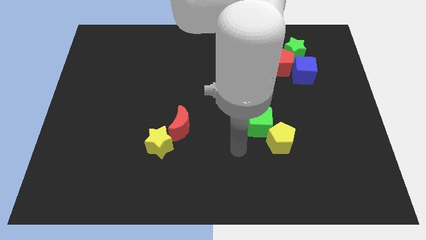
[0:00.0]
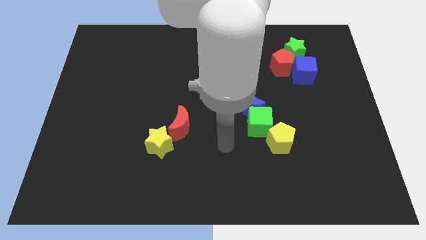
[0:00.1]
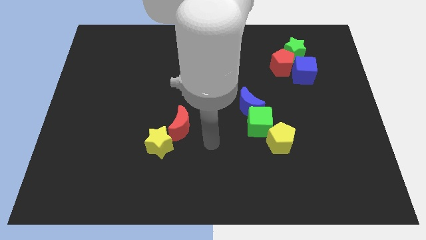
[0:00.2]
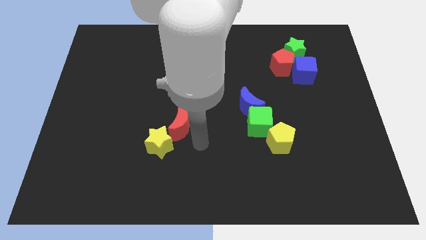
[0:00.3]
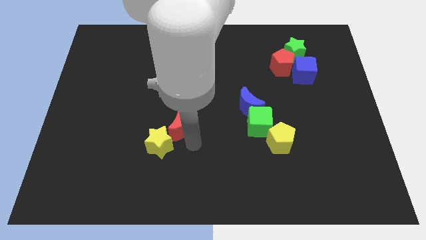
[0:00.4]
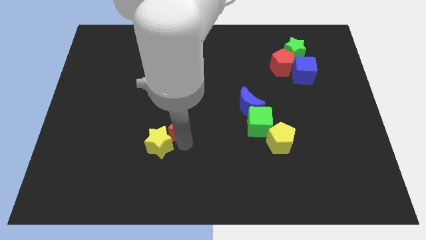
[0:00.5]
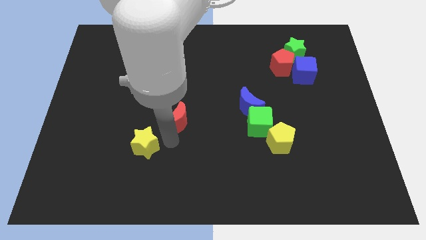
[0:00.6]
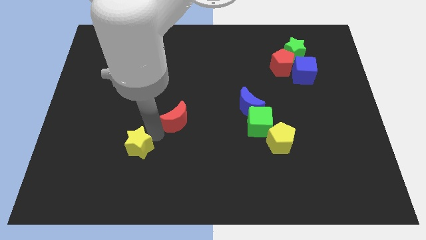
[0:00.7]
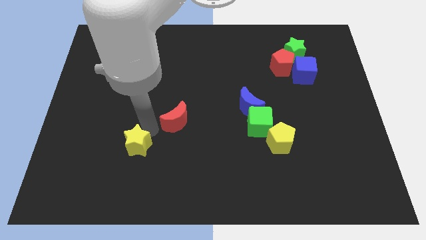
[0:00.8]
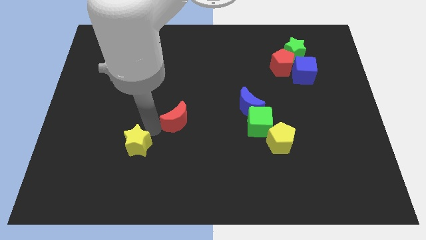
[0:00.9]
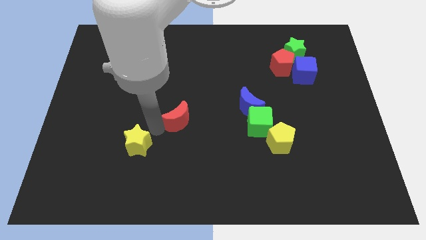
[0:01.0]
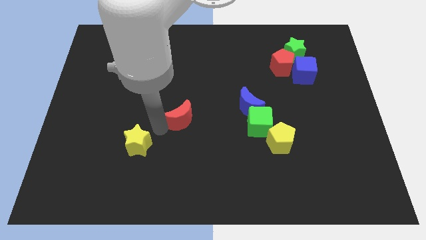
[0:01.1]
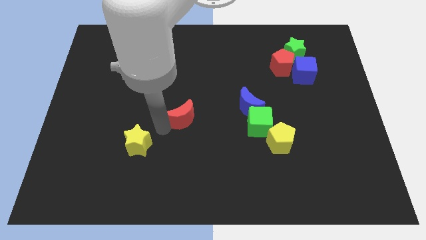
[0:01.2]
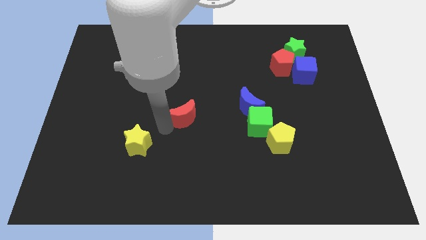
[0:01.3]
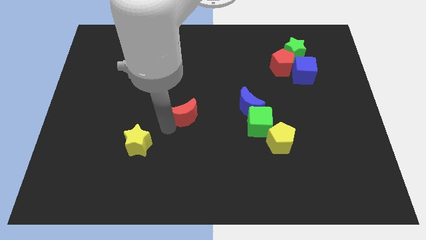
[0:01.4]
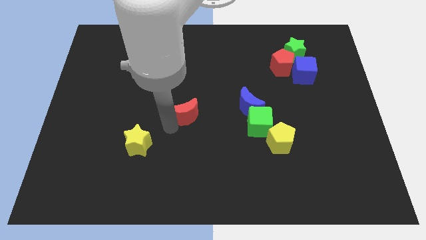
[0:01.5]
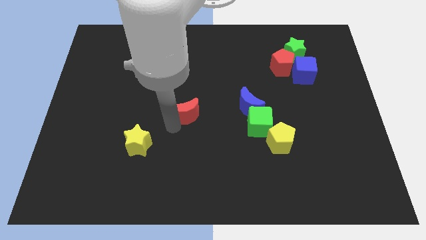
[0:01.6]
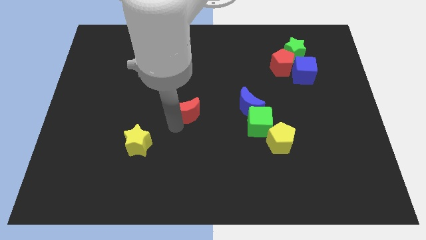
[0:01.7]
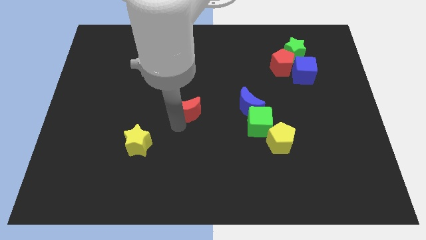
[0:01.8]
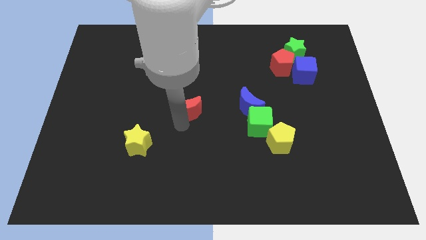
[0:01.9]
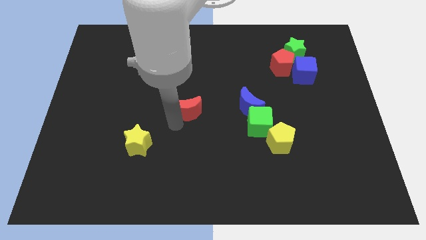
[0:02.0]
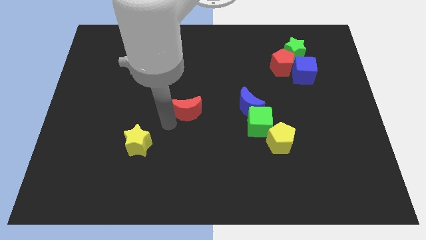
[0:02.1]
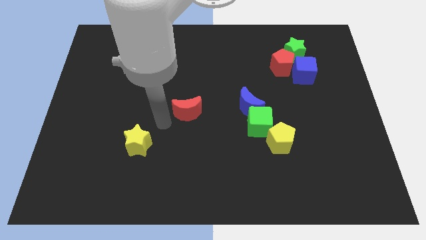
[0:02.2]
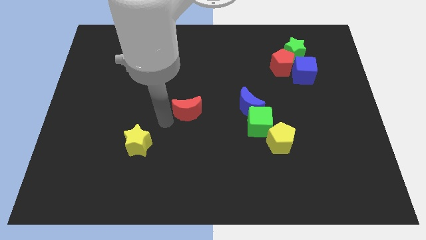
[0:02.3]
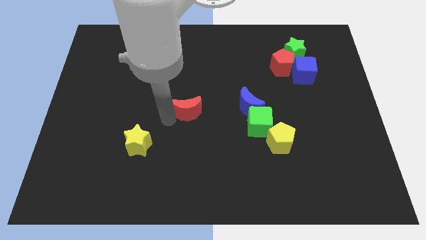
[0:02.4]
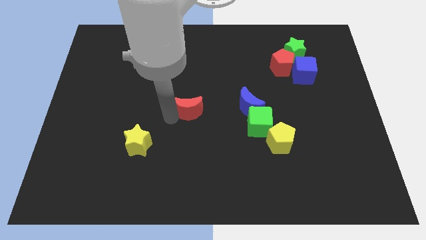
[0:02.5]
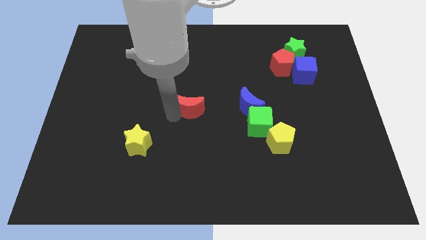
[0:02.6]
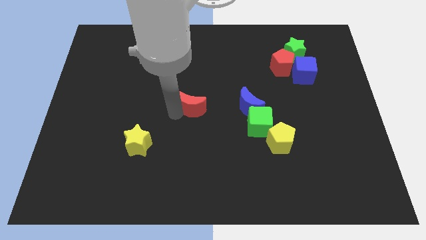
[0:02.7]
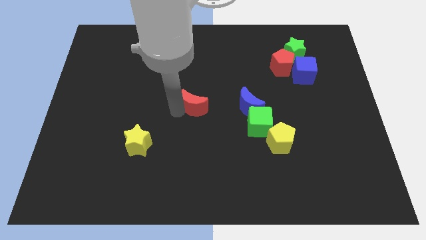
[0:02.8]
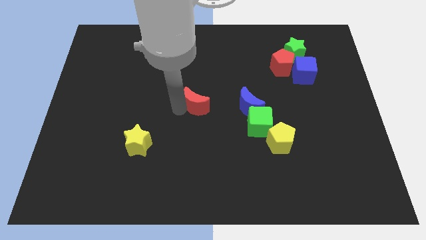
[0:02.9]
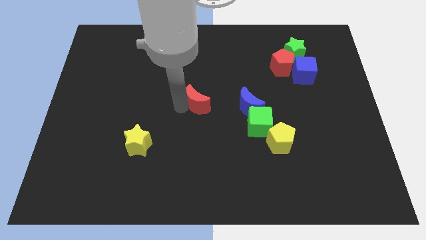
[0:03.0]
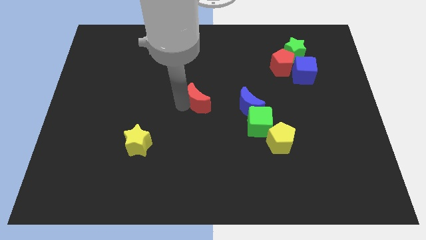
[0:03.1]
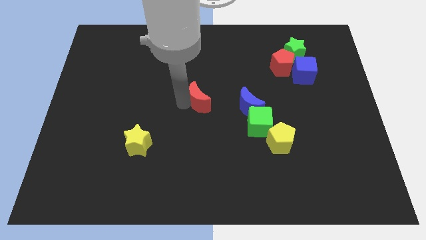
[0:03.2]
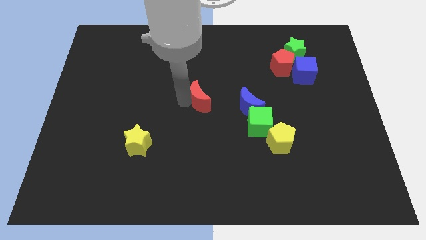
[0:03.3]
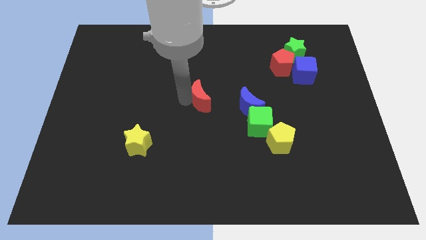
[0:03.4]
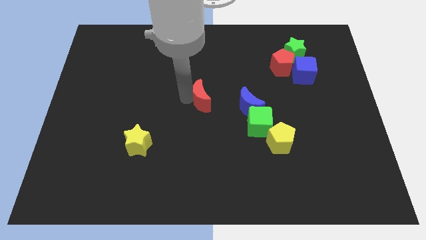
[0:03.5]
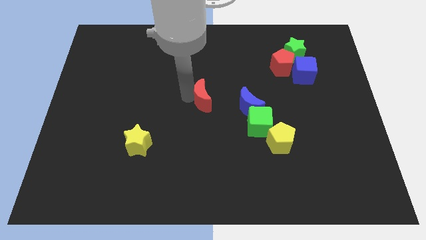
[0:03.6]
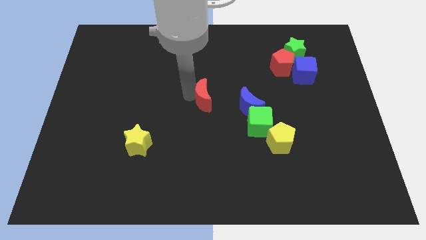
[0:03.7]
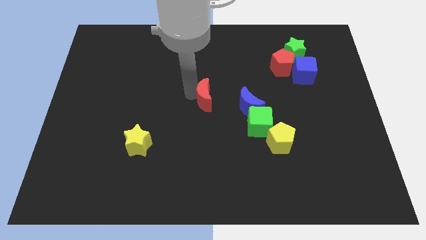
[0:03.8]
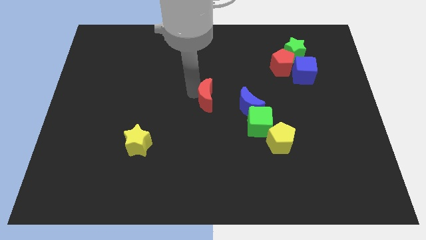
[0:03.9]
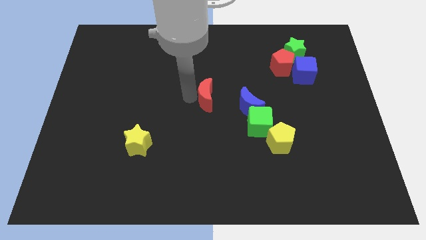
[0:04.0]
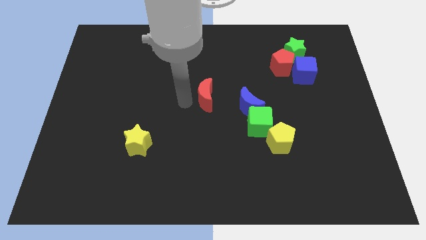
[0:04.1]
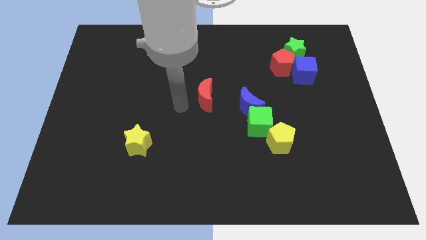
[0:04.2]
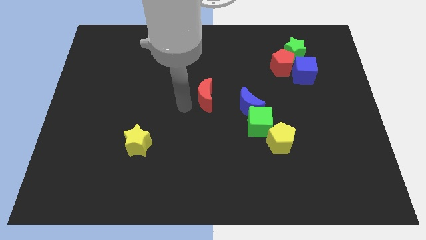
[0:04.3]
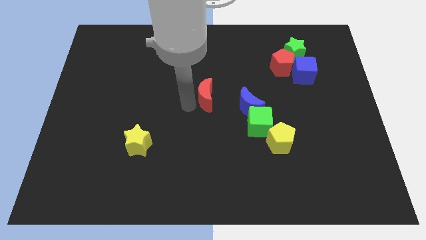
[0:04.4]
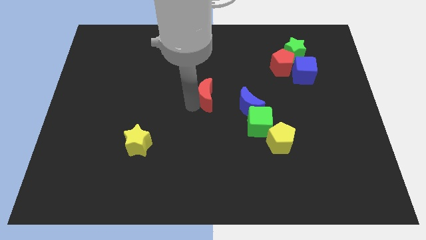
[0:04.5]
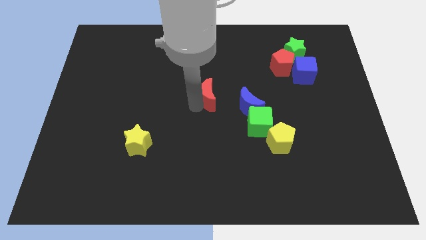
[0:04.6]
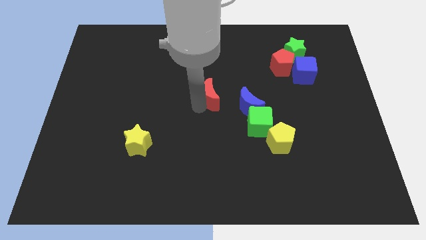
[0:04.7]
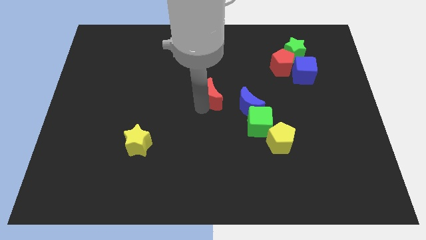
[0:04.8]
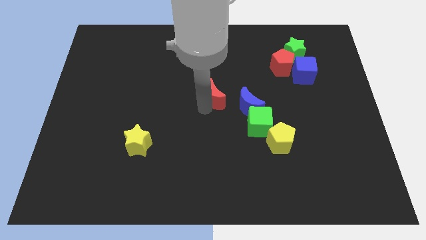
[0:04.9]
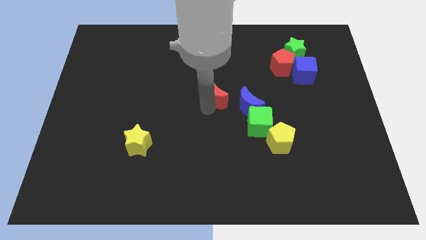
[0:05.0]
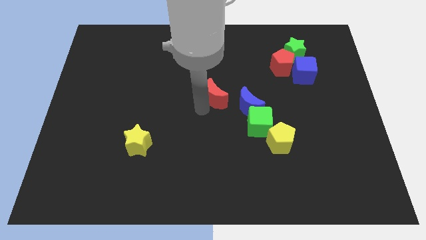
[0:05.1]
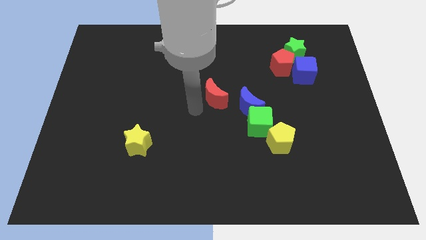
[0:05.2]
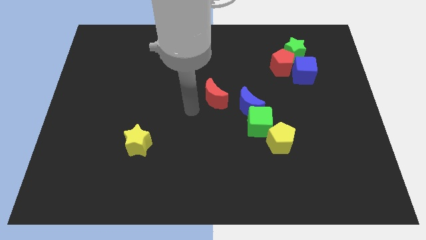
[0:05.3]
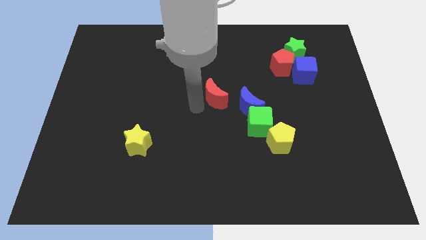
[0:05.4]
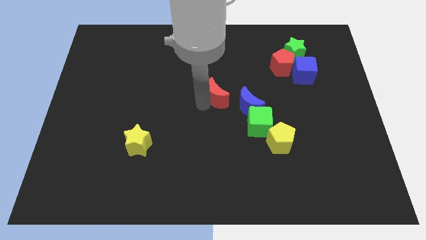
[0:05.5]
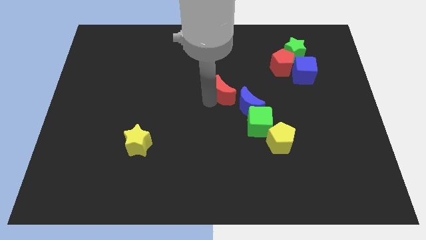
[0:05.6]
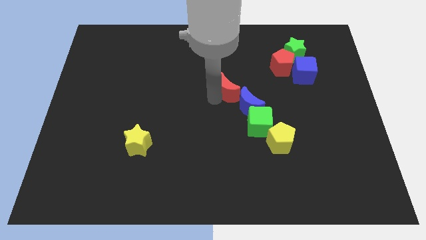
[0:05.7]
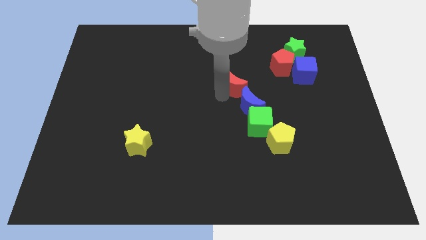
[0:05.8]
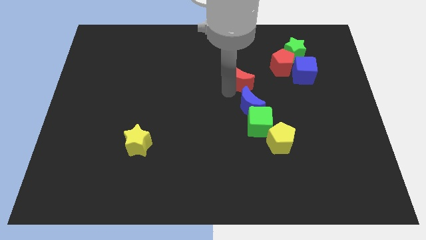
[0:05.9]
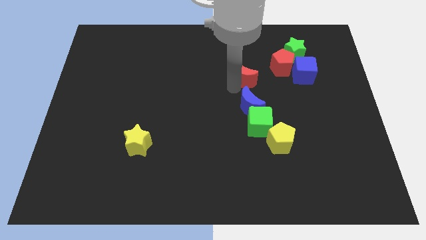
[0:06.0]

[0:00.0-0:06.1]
push the red moon upwards and right

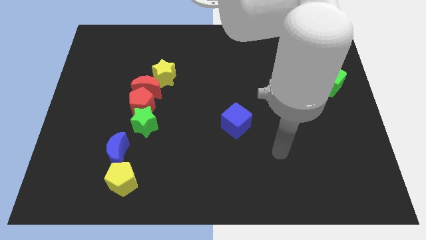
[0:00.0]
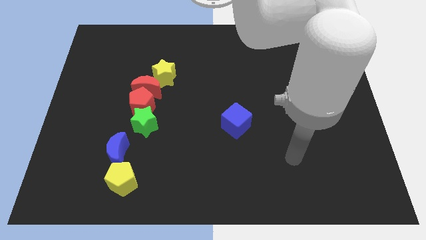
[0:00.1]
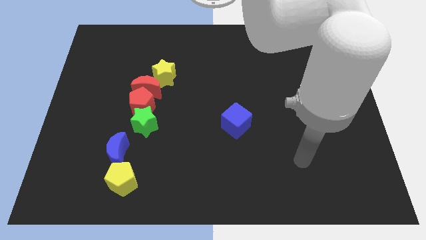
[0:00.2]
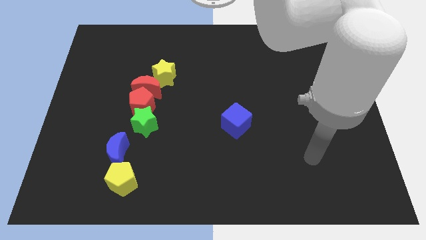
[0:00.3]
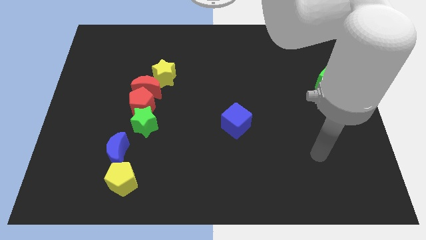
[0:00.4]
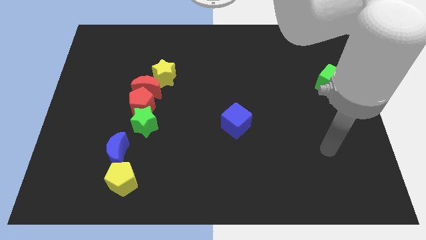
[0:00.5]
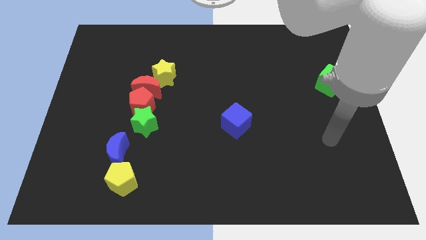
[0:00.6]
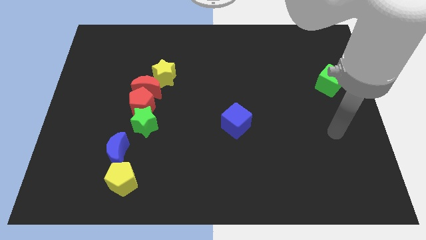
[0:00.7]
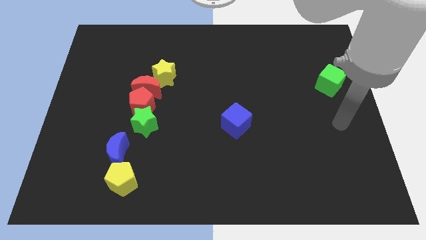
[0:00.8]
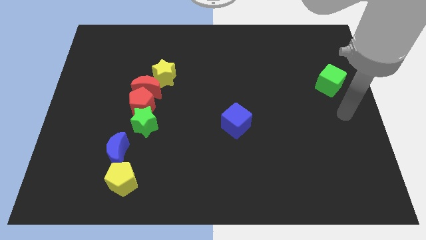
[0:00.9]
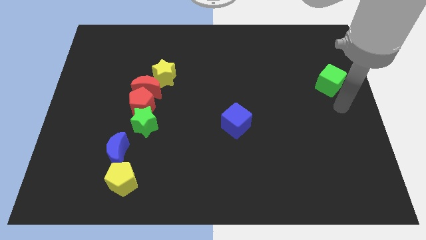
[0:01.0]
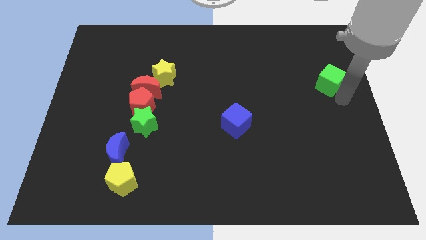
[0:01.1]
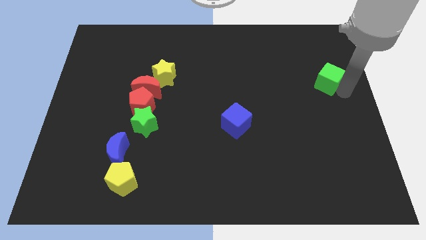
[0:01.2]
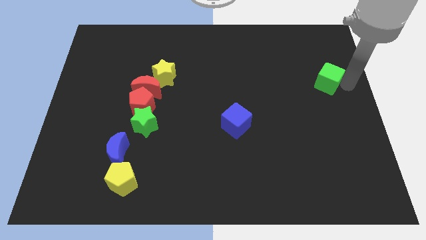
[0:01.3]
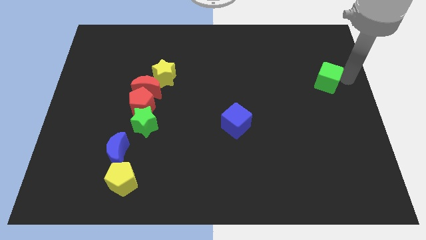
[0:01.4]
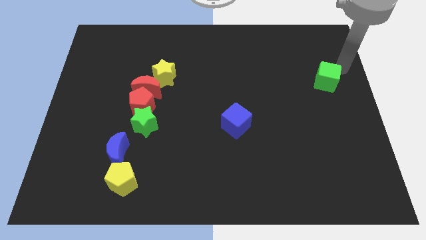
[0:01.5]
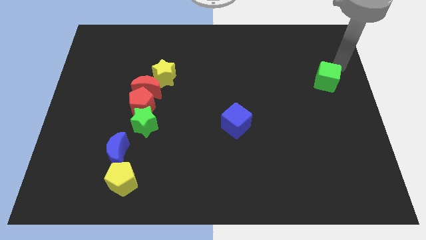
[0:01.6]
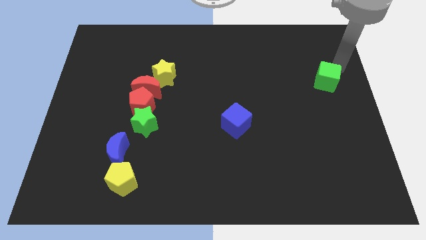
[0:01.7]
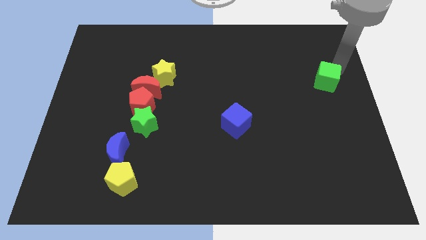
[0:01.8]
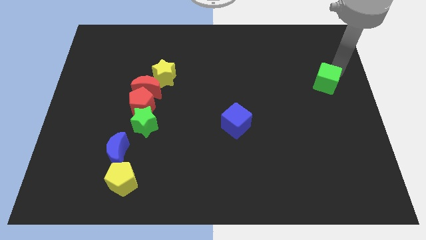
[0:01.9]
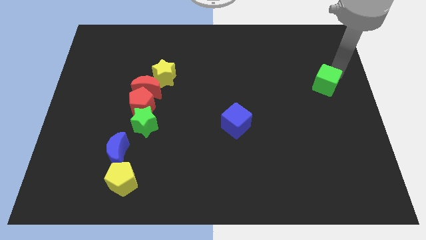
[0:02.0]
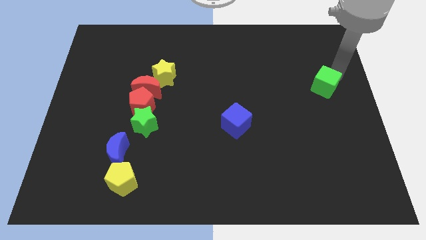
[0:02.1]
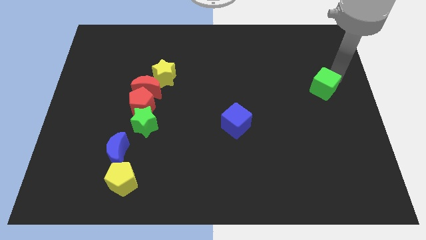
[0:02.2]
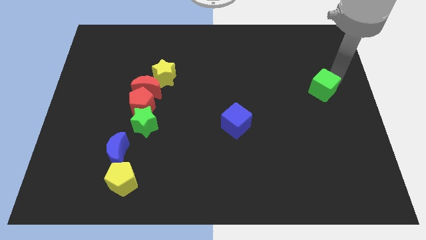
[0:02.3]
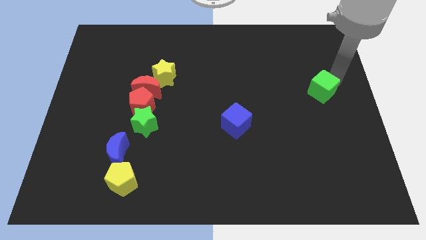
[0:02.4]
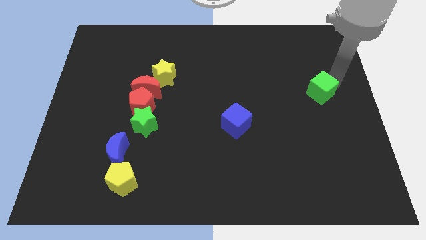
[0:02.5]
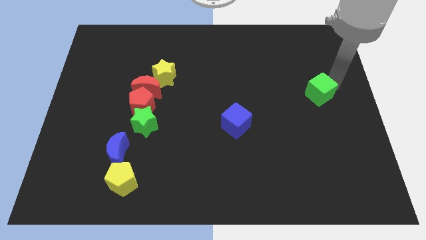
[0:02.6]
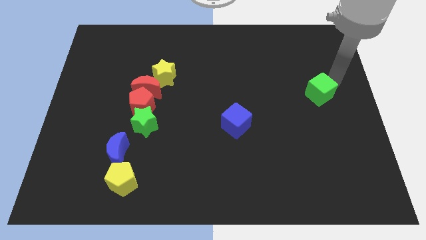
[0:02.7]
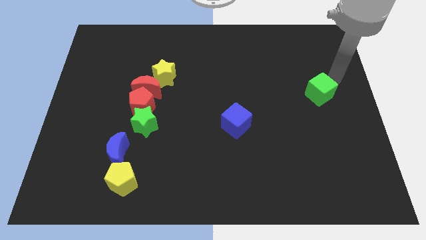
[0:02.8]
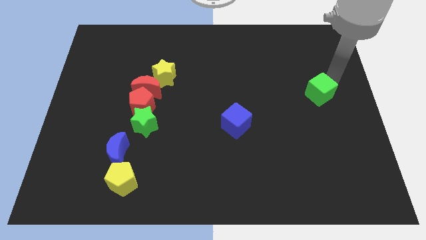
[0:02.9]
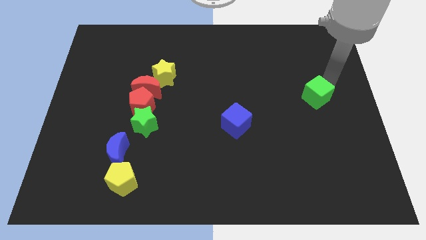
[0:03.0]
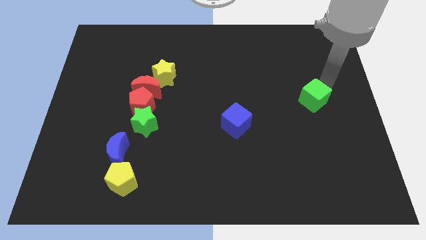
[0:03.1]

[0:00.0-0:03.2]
slide the green cube a little diagonally downwards and left
